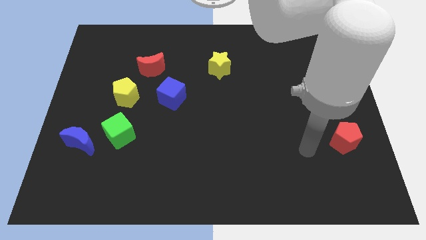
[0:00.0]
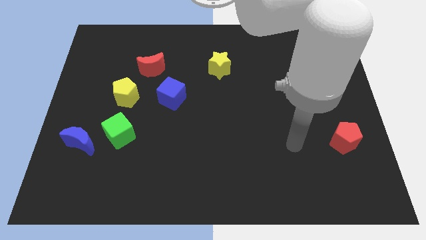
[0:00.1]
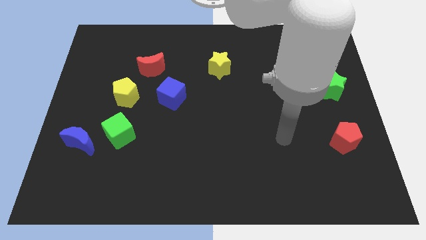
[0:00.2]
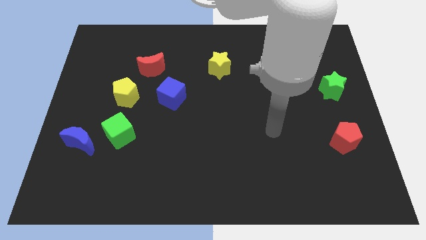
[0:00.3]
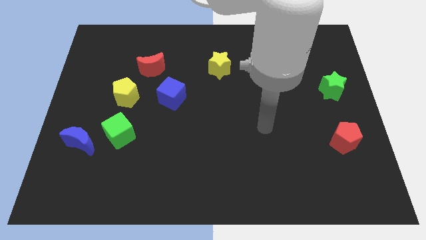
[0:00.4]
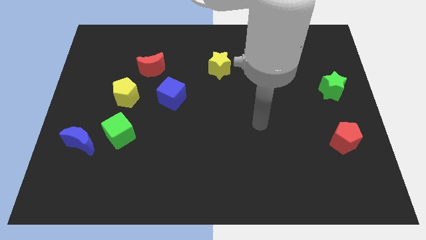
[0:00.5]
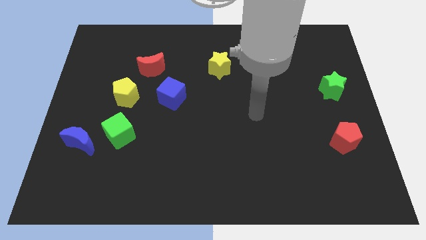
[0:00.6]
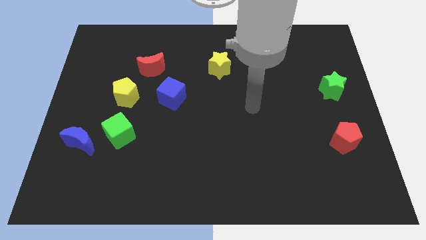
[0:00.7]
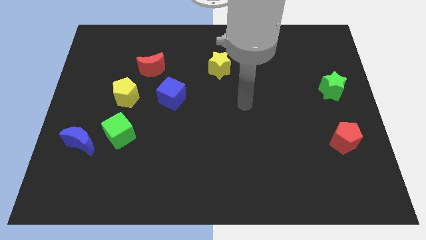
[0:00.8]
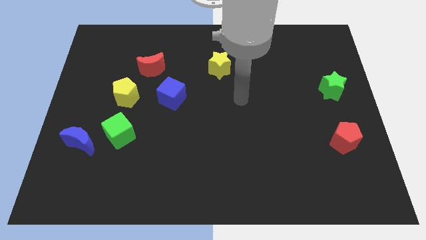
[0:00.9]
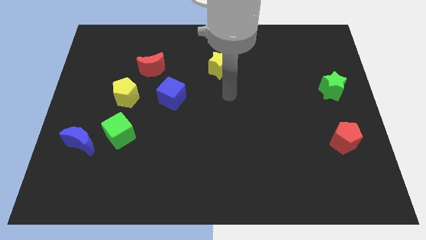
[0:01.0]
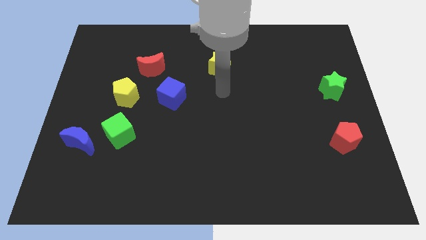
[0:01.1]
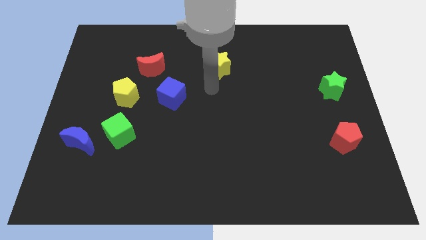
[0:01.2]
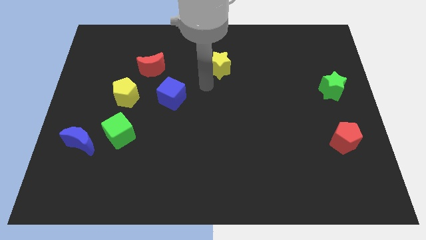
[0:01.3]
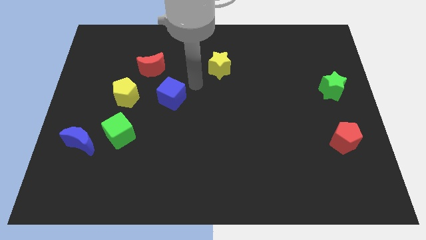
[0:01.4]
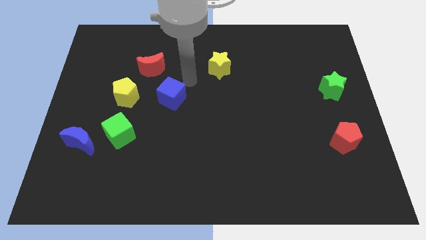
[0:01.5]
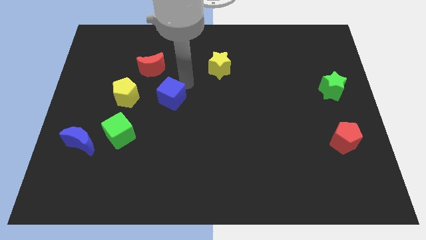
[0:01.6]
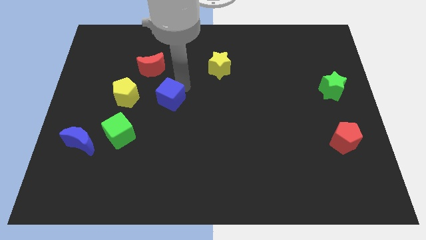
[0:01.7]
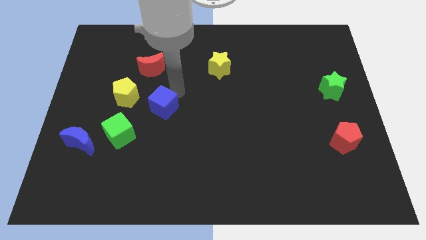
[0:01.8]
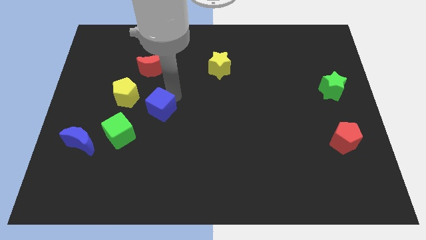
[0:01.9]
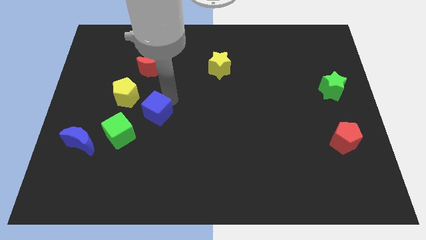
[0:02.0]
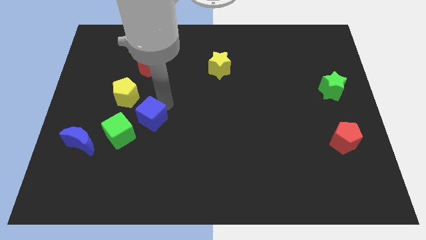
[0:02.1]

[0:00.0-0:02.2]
move the blue cube down and then left slightly

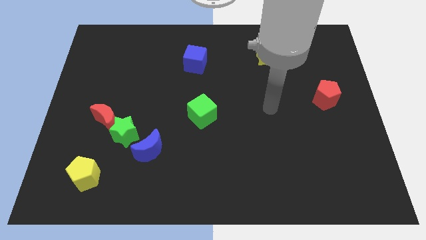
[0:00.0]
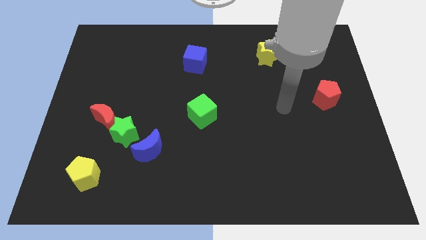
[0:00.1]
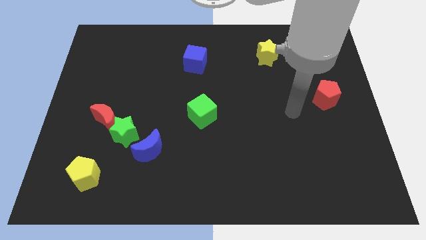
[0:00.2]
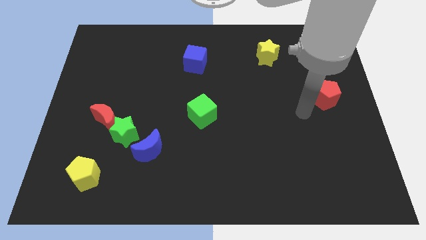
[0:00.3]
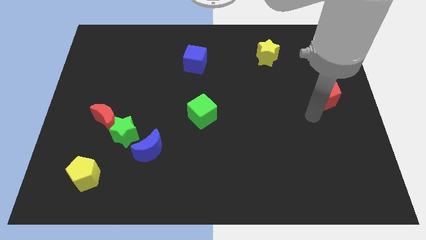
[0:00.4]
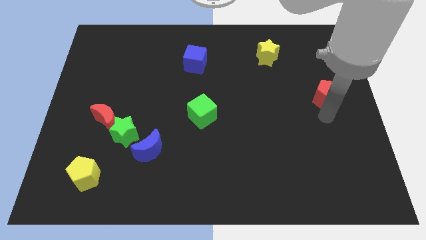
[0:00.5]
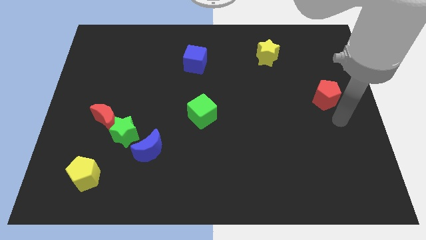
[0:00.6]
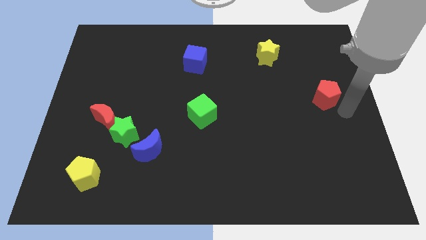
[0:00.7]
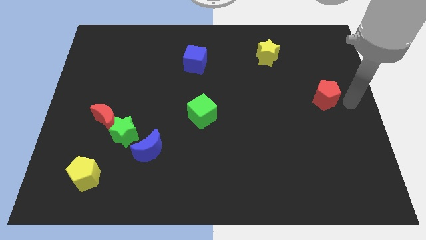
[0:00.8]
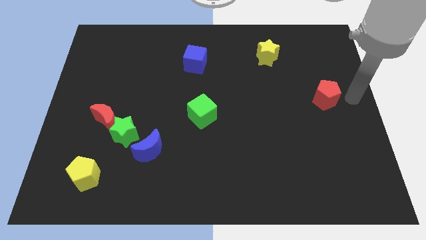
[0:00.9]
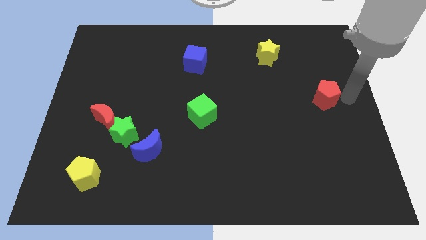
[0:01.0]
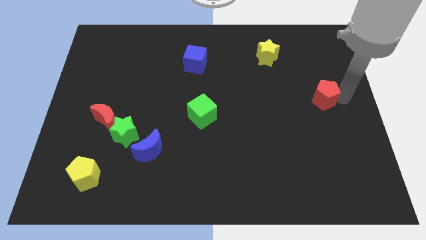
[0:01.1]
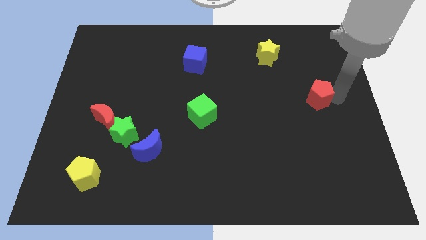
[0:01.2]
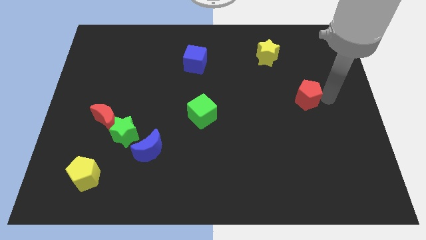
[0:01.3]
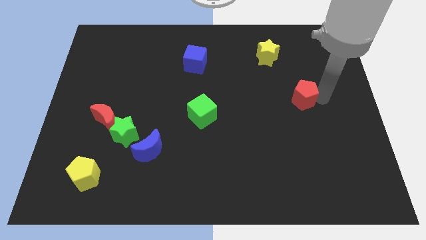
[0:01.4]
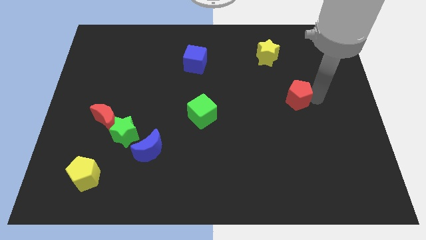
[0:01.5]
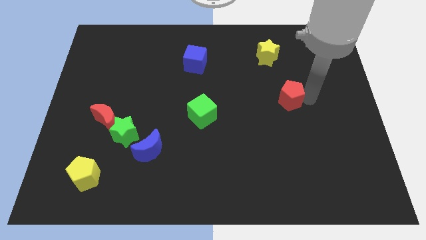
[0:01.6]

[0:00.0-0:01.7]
push the red pentagon left a bit

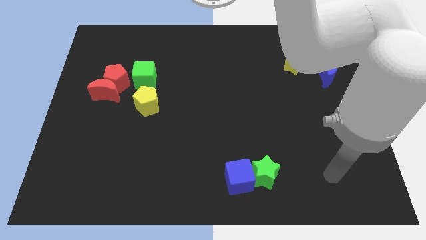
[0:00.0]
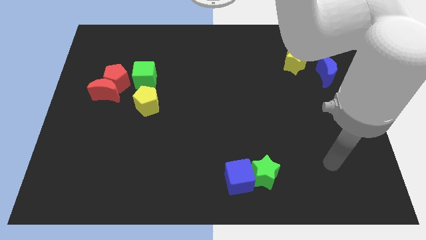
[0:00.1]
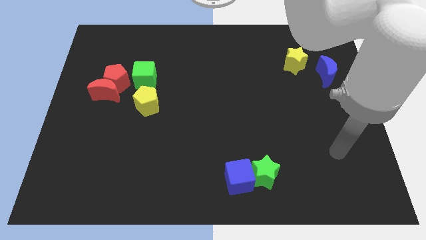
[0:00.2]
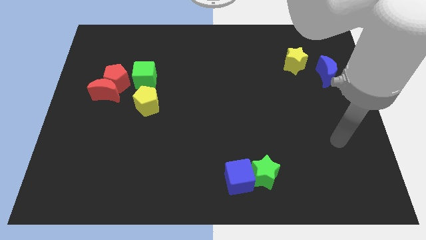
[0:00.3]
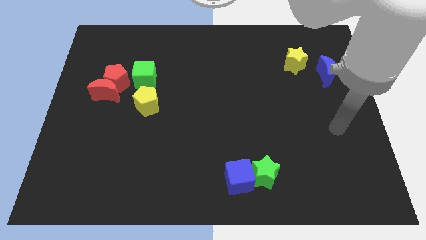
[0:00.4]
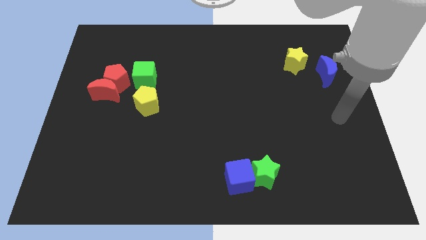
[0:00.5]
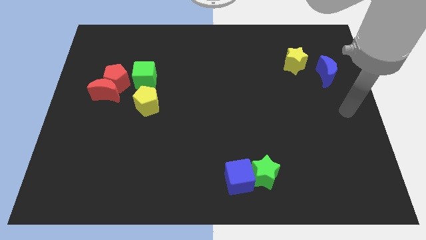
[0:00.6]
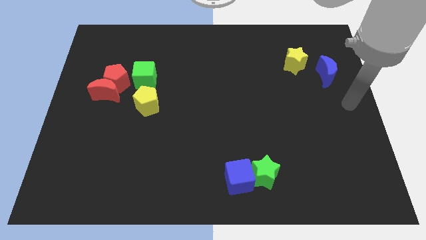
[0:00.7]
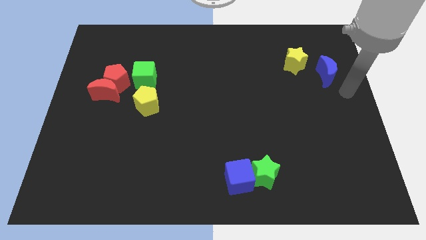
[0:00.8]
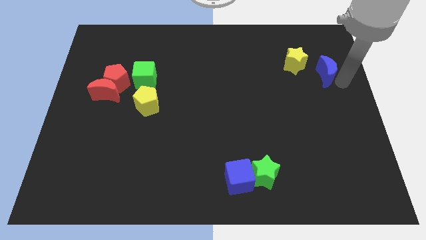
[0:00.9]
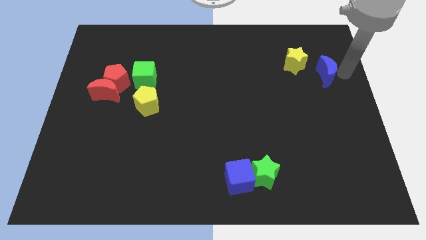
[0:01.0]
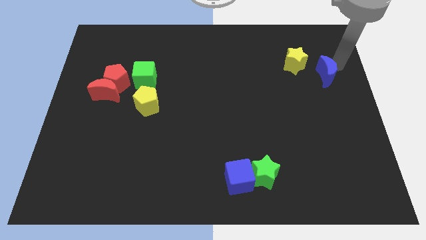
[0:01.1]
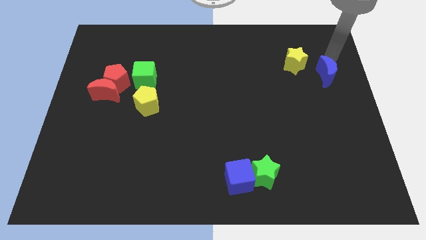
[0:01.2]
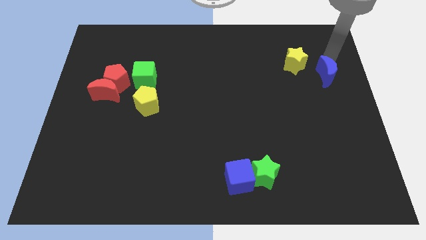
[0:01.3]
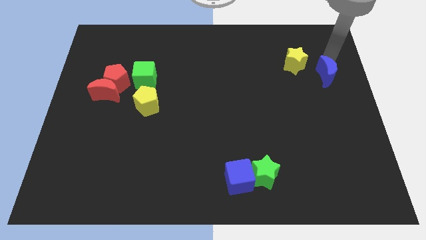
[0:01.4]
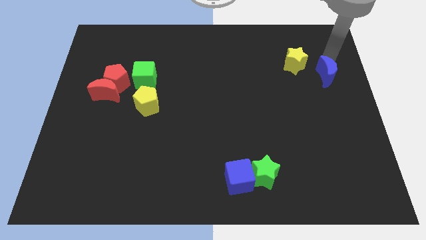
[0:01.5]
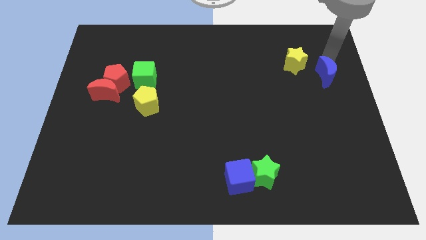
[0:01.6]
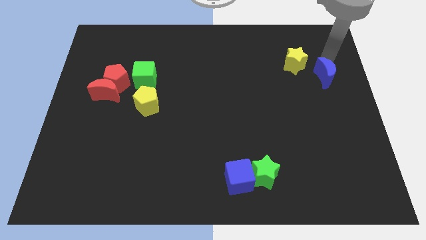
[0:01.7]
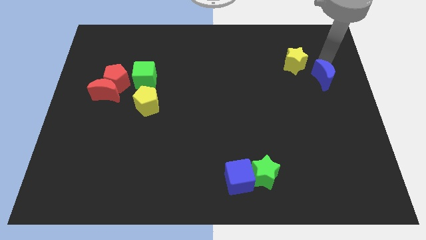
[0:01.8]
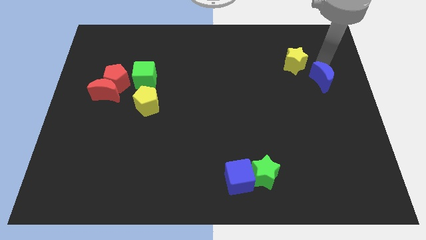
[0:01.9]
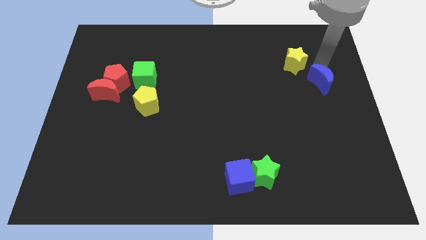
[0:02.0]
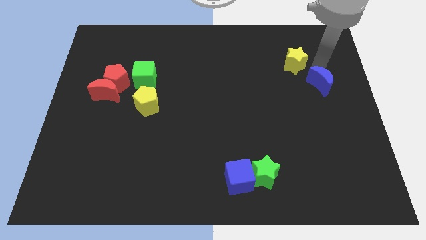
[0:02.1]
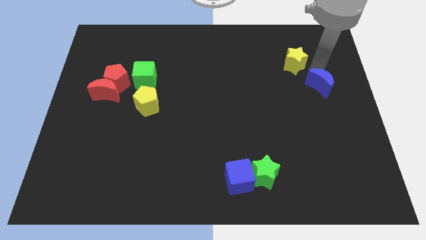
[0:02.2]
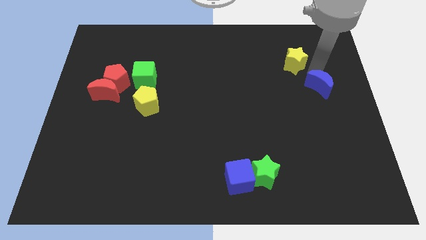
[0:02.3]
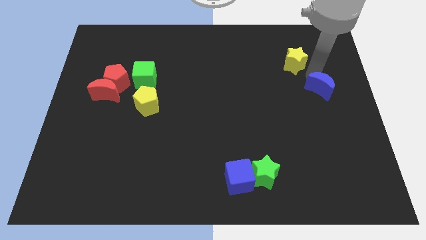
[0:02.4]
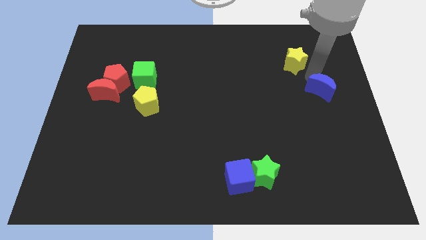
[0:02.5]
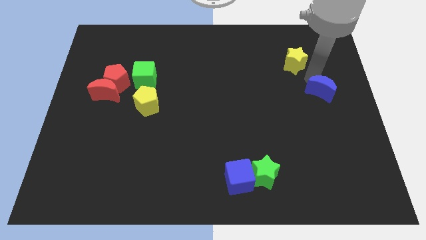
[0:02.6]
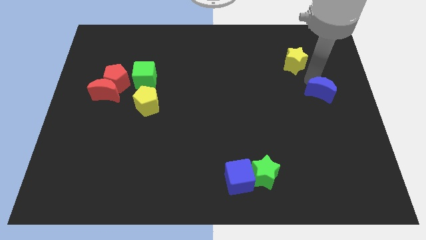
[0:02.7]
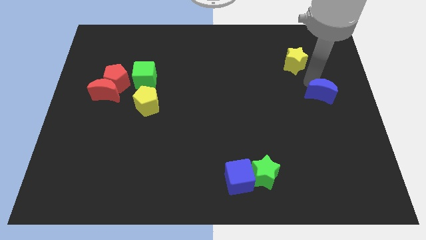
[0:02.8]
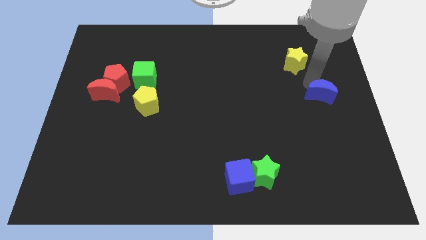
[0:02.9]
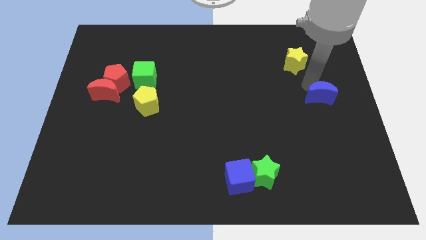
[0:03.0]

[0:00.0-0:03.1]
slightly slide the blue moon downwards

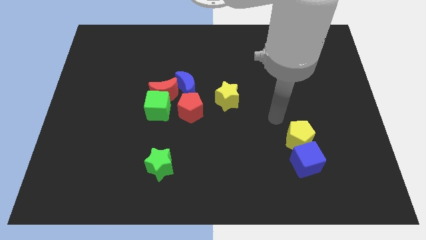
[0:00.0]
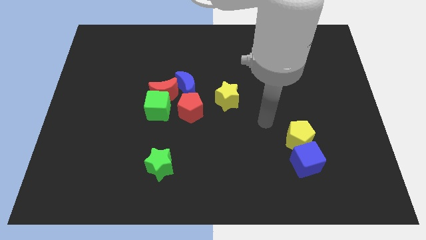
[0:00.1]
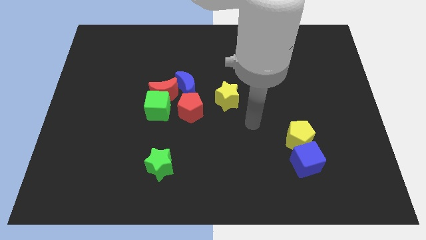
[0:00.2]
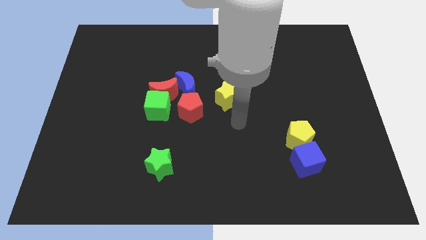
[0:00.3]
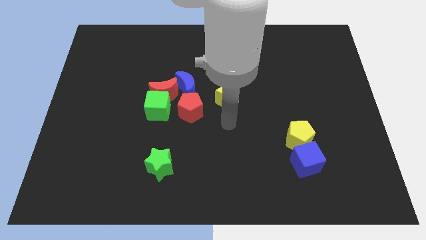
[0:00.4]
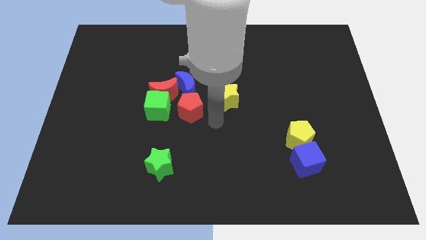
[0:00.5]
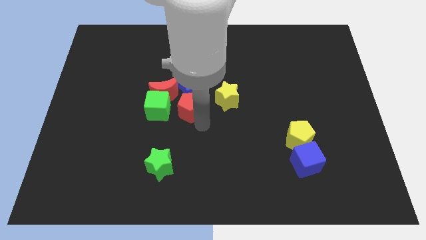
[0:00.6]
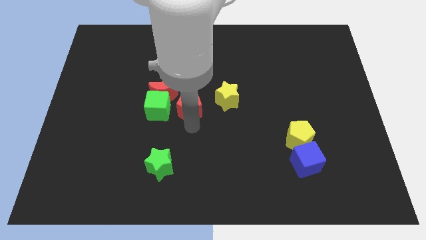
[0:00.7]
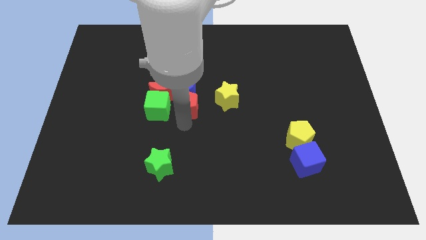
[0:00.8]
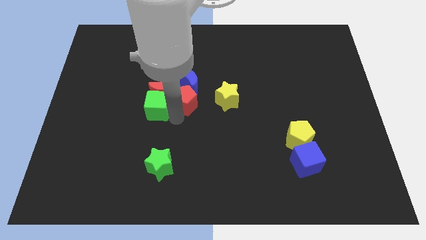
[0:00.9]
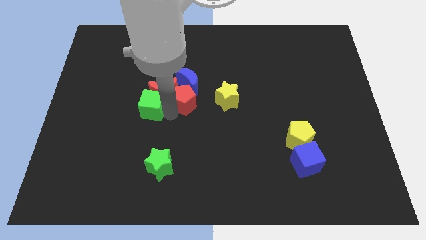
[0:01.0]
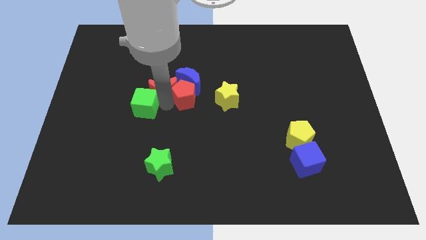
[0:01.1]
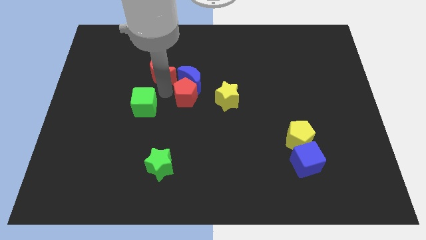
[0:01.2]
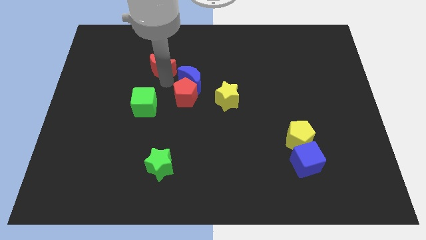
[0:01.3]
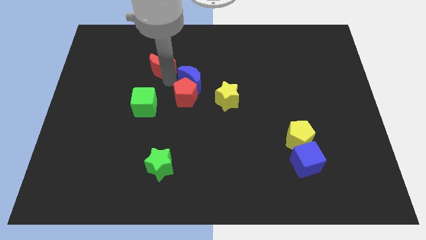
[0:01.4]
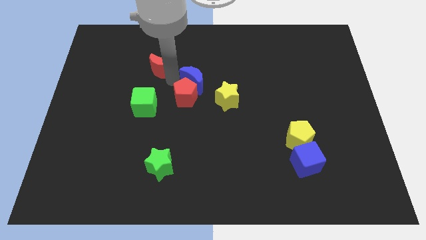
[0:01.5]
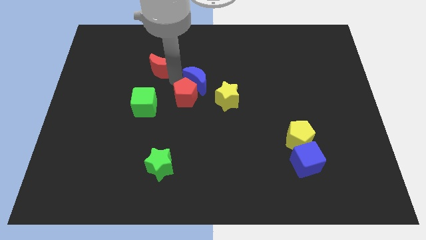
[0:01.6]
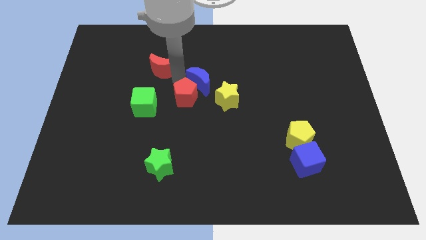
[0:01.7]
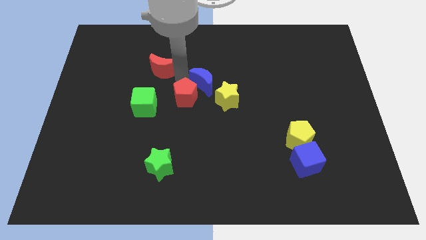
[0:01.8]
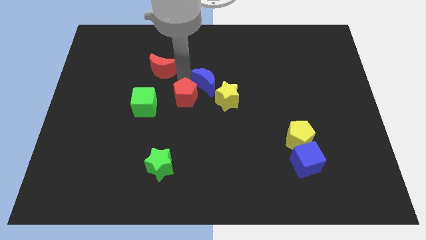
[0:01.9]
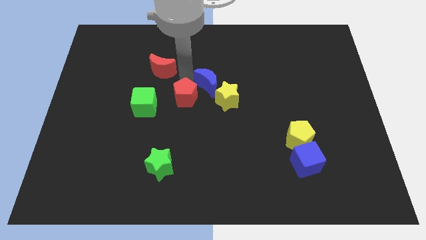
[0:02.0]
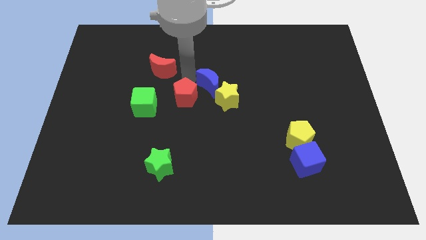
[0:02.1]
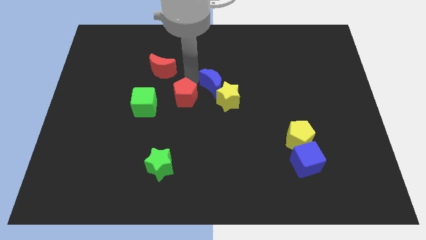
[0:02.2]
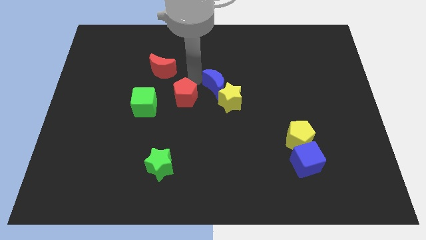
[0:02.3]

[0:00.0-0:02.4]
move the blue moon somewhat right
